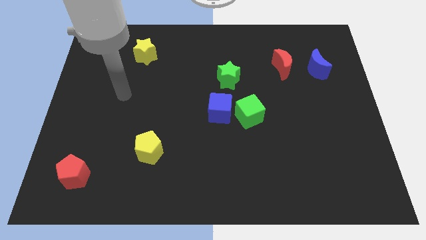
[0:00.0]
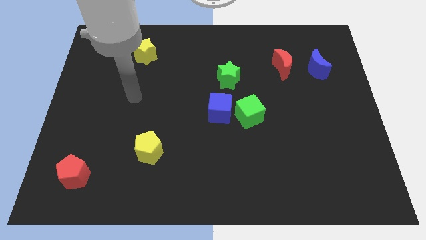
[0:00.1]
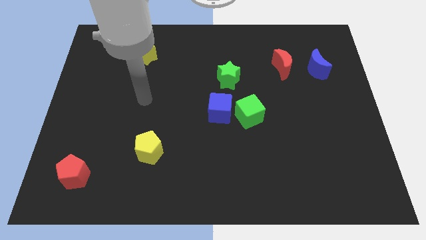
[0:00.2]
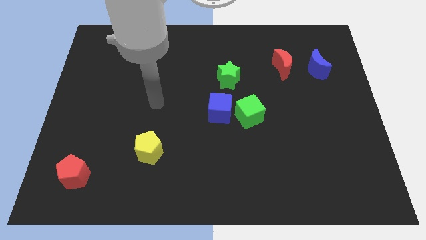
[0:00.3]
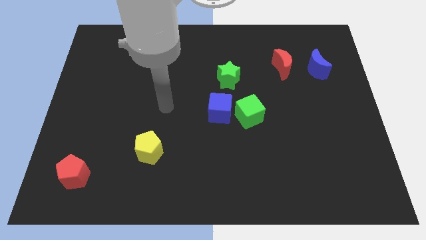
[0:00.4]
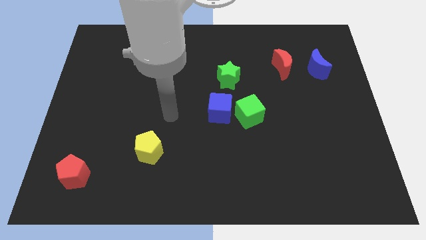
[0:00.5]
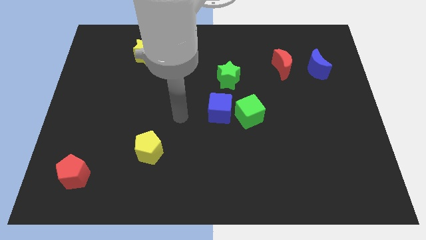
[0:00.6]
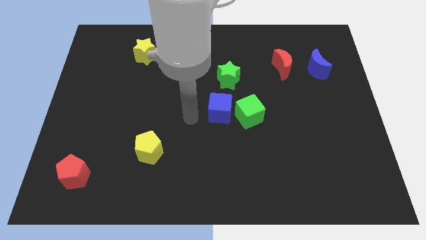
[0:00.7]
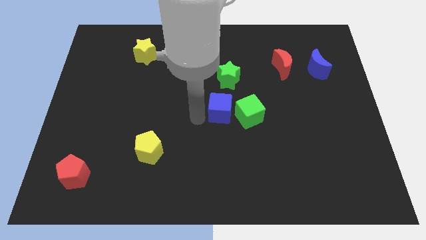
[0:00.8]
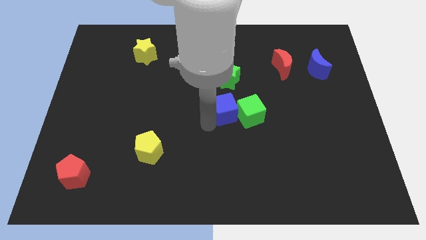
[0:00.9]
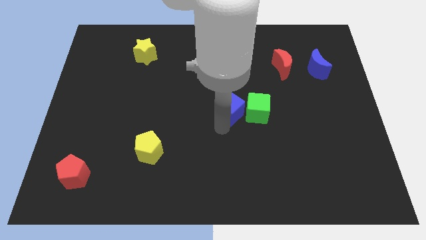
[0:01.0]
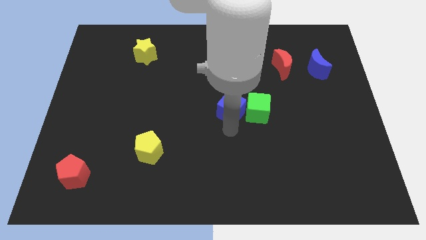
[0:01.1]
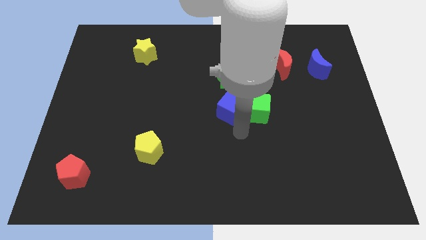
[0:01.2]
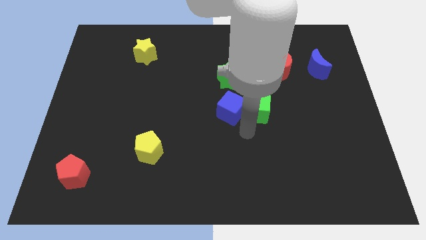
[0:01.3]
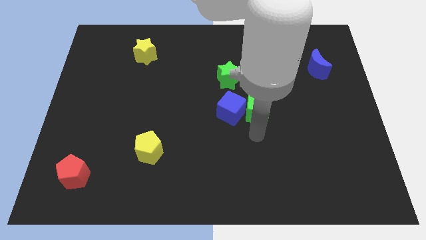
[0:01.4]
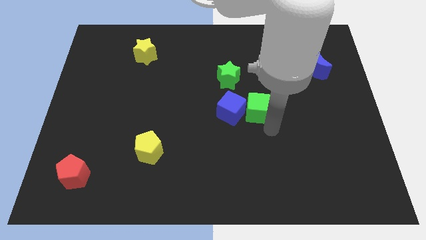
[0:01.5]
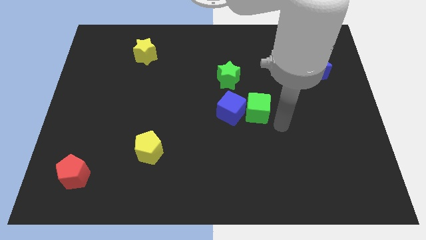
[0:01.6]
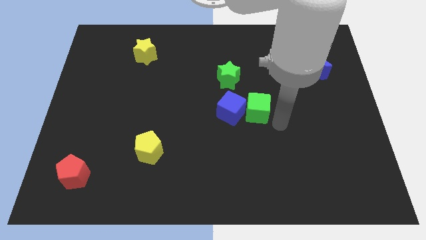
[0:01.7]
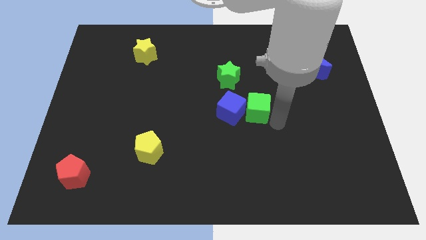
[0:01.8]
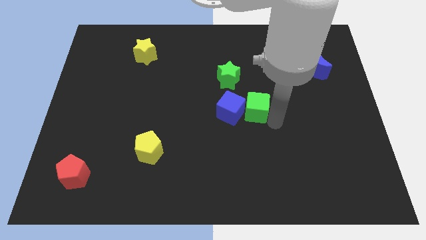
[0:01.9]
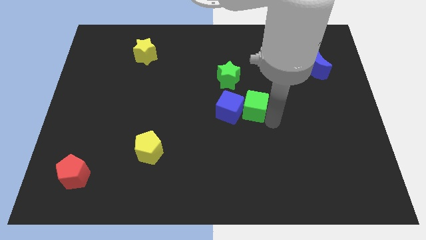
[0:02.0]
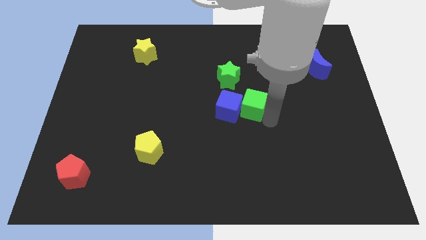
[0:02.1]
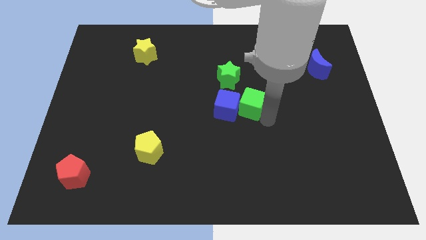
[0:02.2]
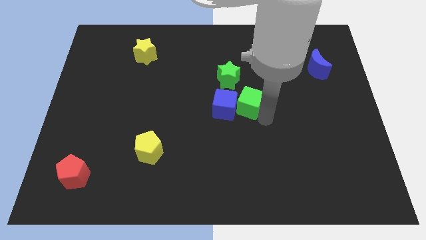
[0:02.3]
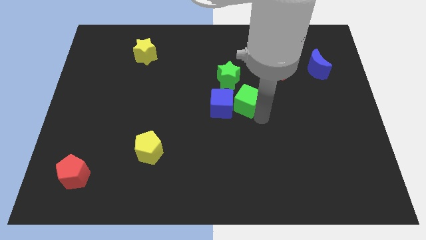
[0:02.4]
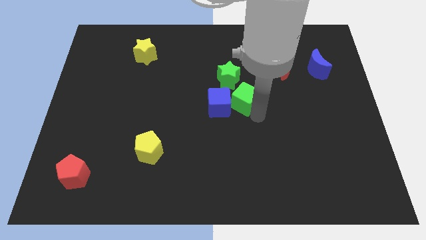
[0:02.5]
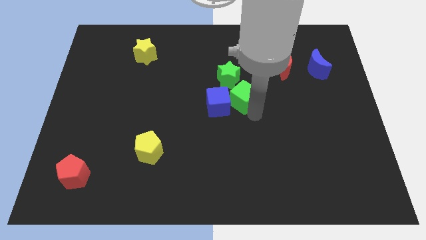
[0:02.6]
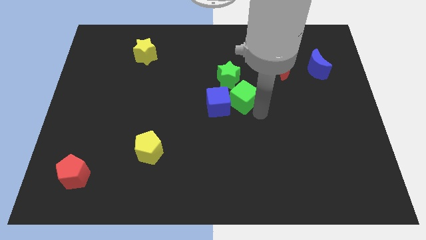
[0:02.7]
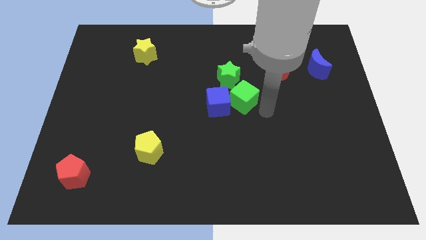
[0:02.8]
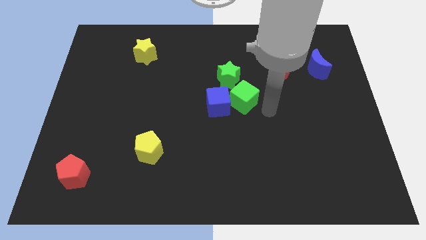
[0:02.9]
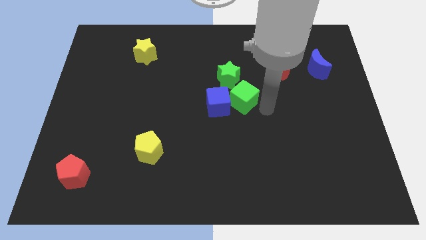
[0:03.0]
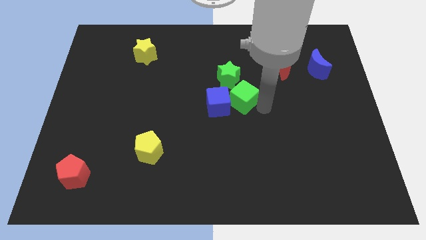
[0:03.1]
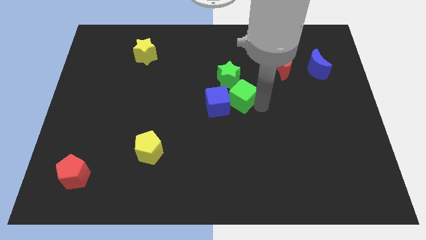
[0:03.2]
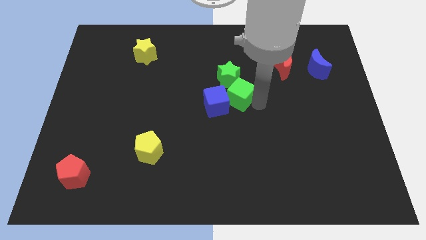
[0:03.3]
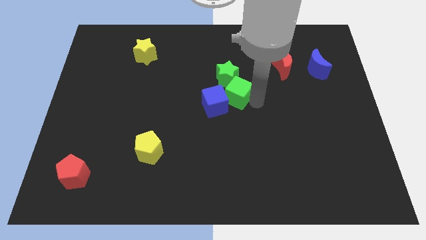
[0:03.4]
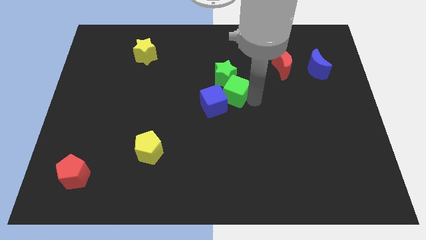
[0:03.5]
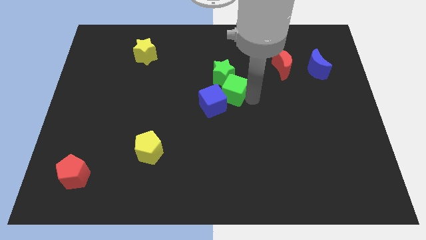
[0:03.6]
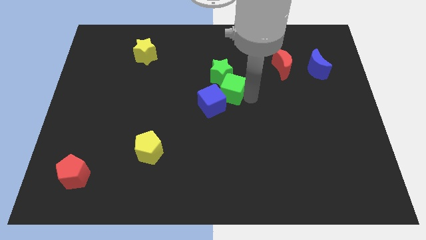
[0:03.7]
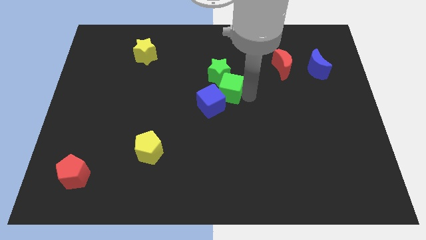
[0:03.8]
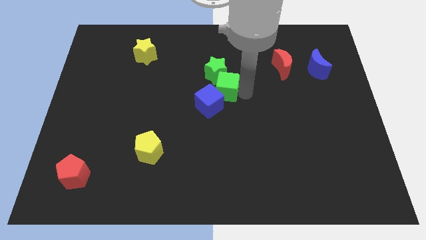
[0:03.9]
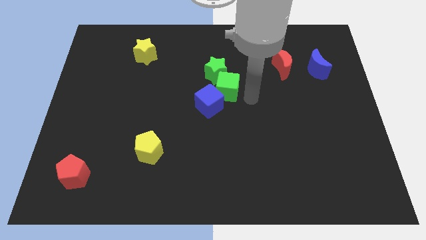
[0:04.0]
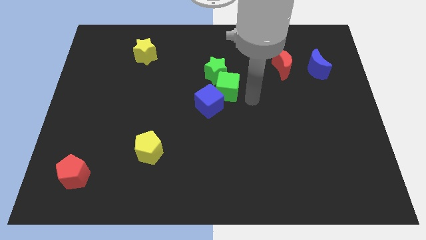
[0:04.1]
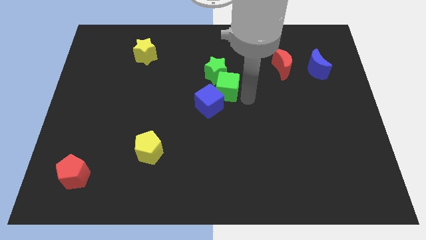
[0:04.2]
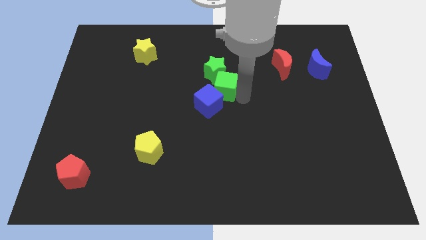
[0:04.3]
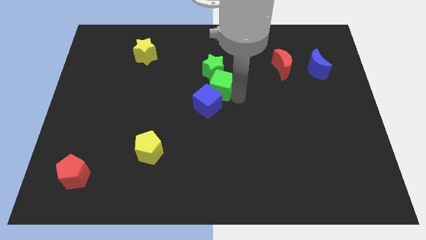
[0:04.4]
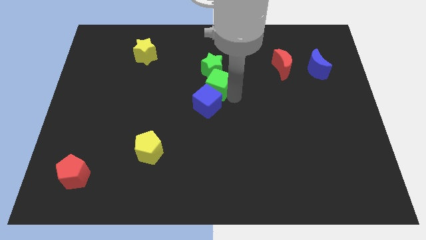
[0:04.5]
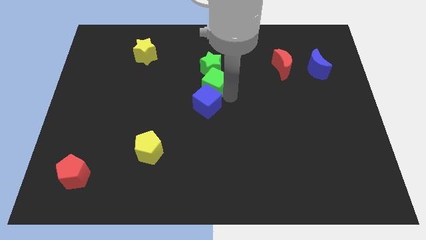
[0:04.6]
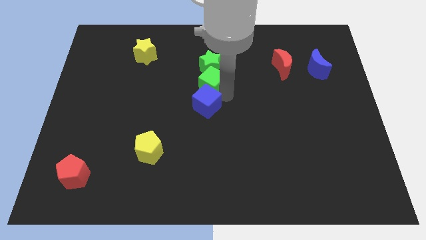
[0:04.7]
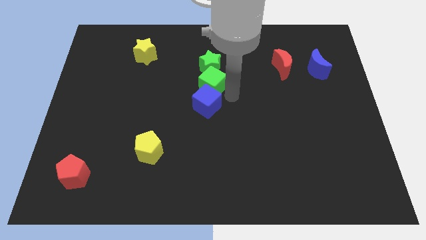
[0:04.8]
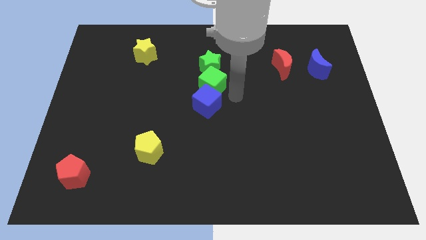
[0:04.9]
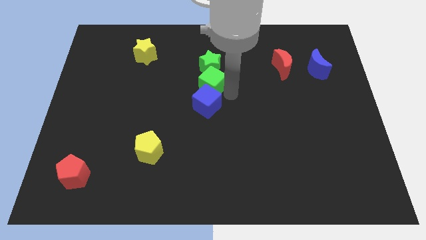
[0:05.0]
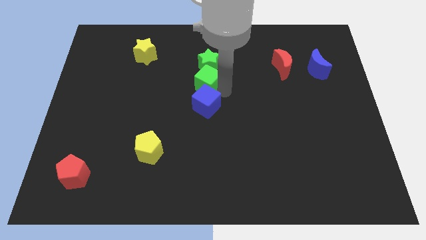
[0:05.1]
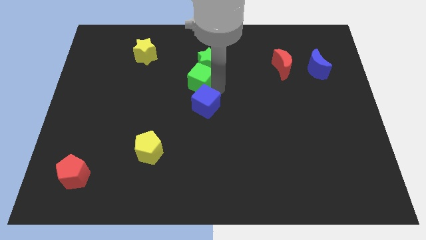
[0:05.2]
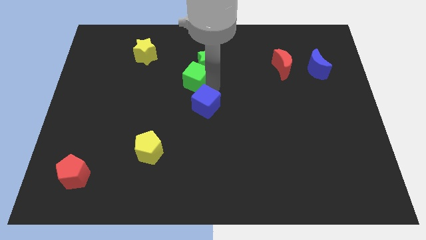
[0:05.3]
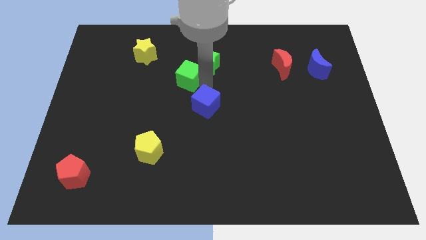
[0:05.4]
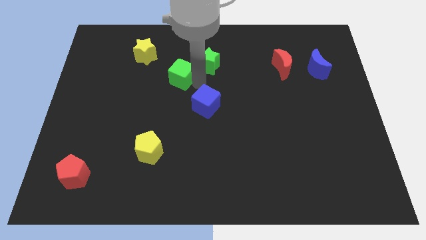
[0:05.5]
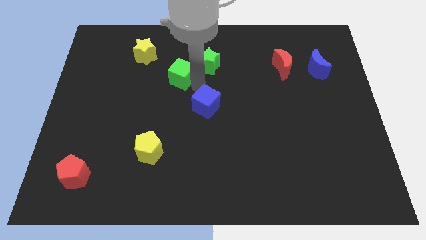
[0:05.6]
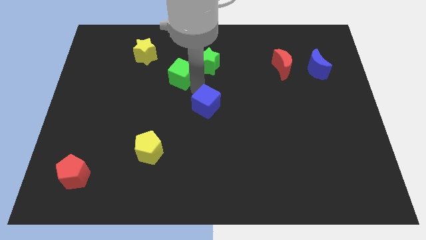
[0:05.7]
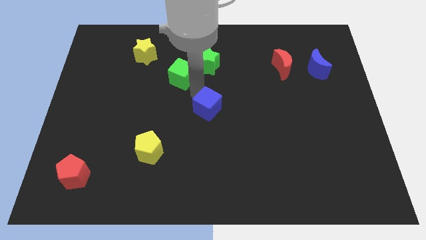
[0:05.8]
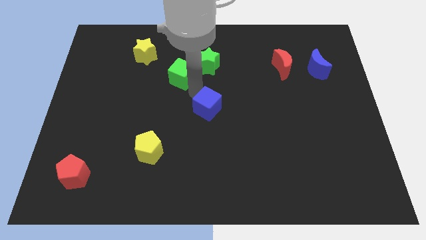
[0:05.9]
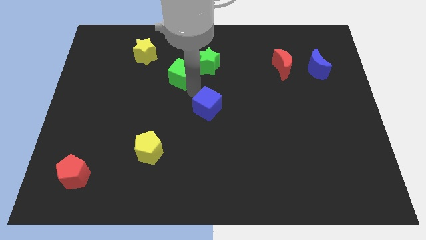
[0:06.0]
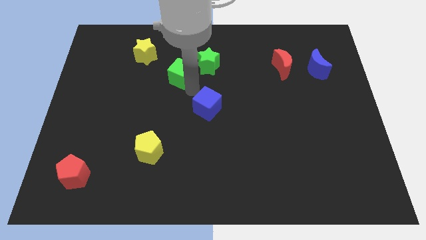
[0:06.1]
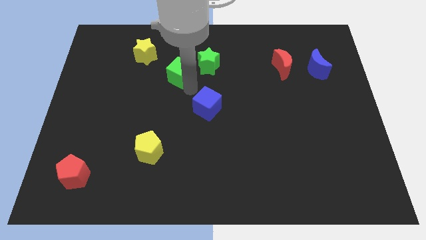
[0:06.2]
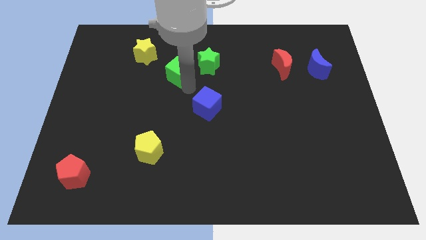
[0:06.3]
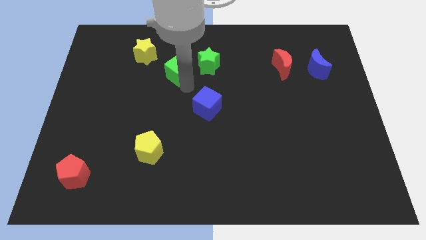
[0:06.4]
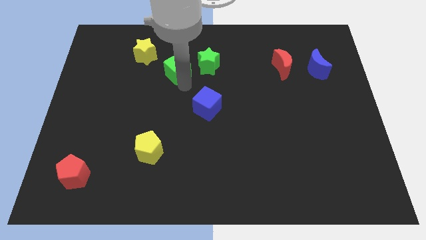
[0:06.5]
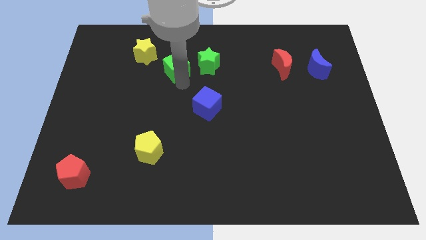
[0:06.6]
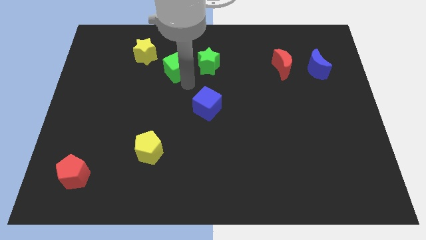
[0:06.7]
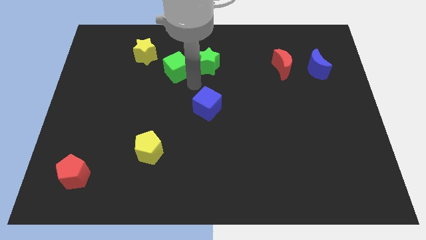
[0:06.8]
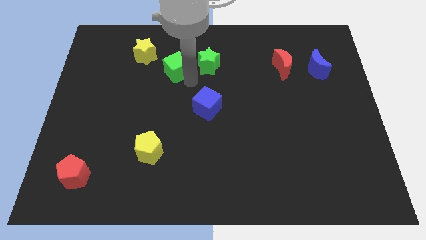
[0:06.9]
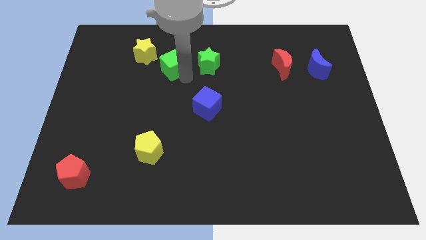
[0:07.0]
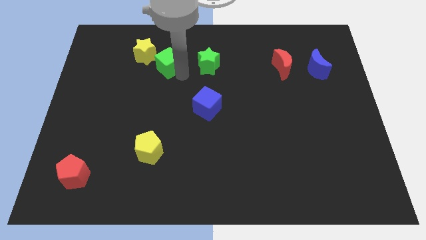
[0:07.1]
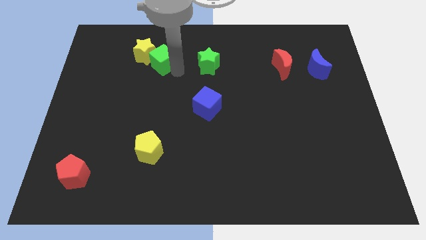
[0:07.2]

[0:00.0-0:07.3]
put the green cube towards the yellow star

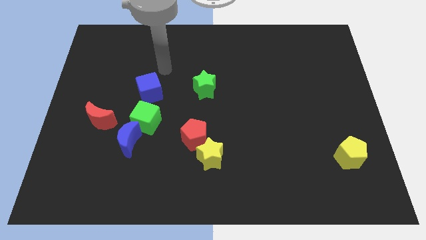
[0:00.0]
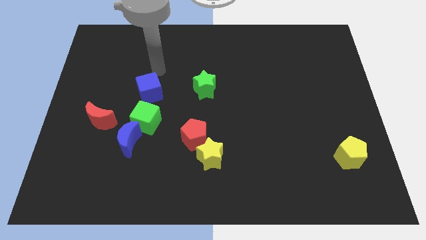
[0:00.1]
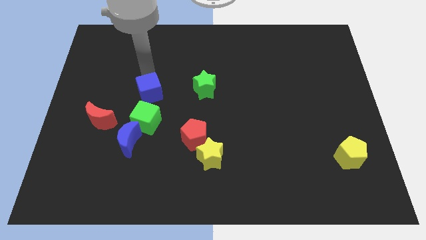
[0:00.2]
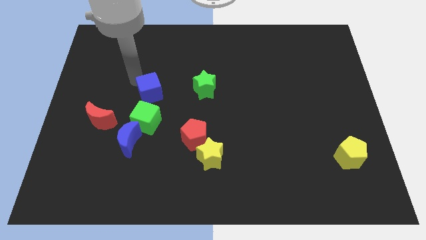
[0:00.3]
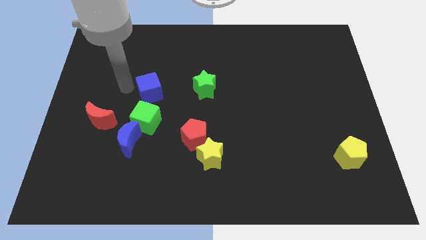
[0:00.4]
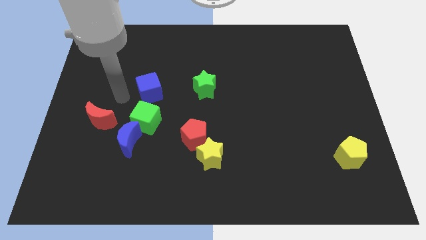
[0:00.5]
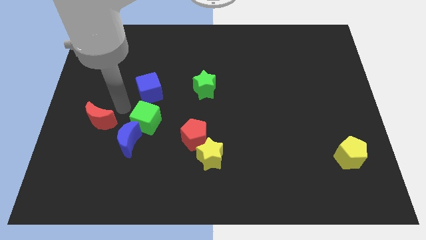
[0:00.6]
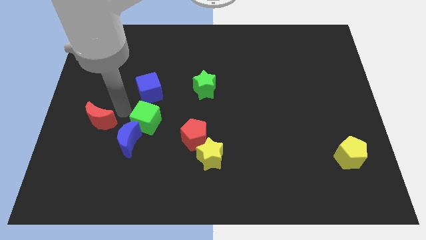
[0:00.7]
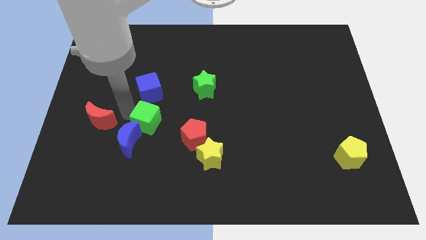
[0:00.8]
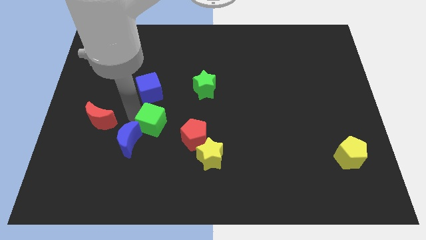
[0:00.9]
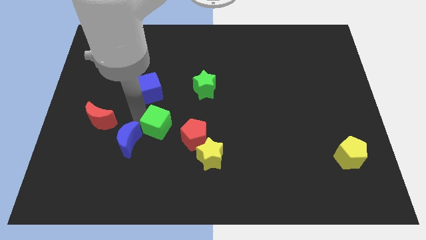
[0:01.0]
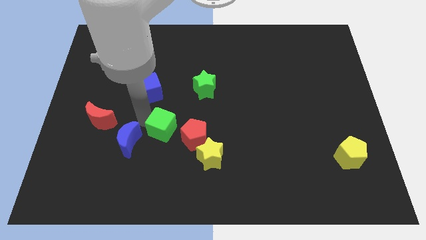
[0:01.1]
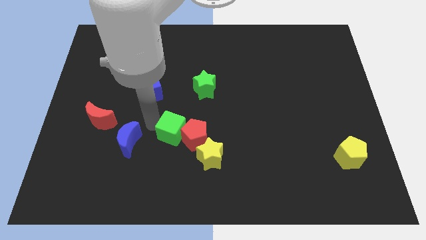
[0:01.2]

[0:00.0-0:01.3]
push the green cube towards the red pentagon
